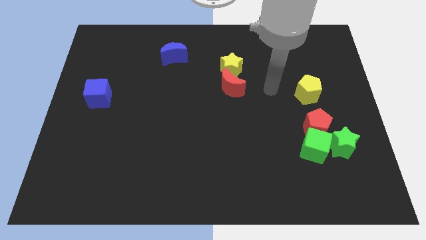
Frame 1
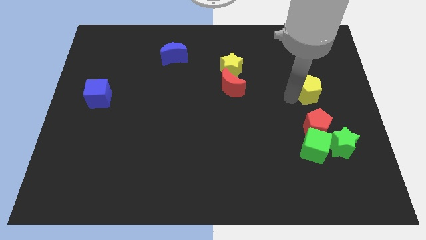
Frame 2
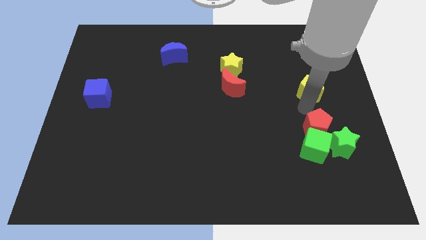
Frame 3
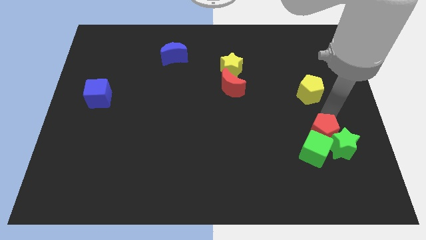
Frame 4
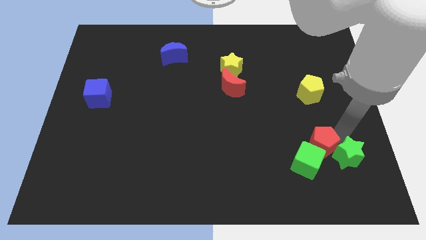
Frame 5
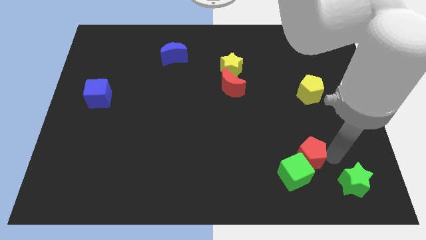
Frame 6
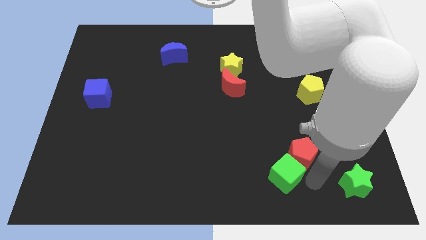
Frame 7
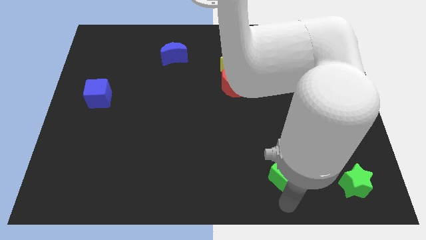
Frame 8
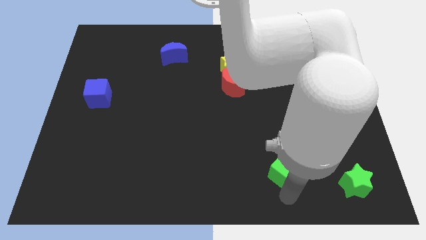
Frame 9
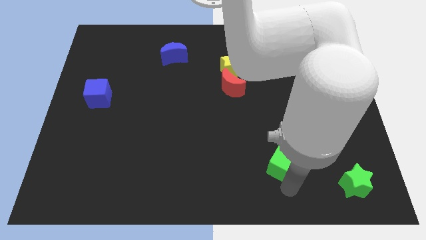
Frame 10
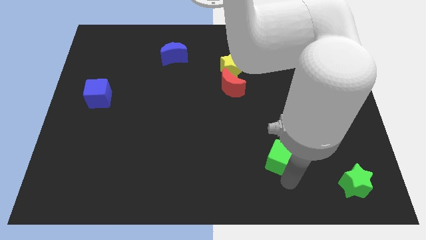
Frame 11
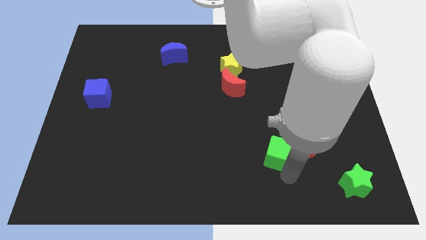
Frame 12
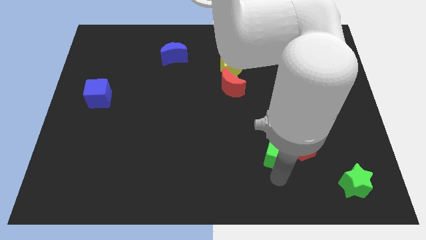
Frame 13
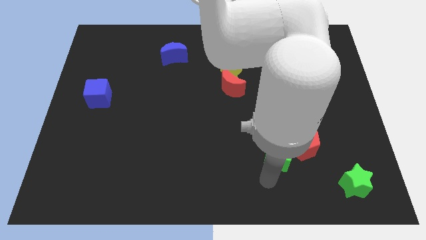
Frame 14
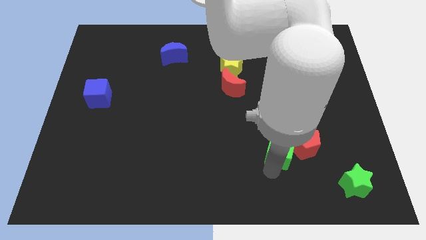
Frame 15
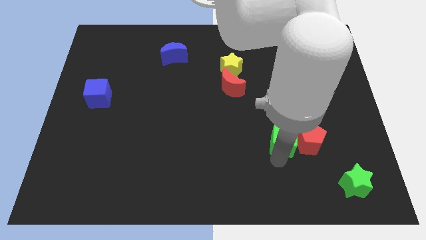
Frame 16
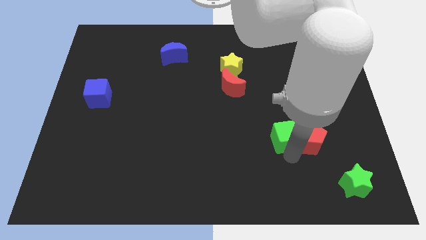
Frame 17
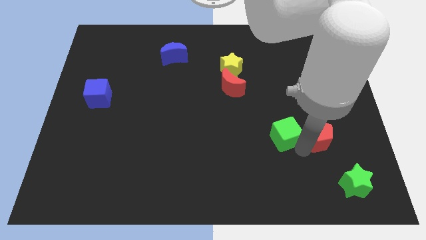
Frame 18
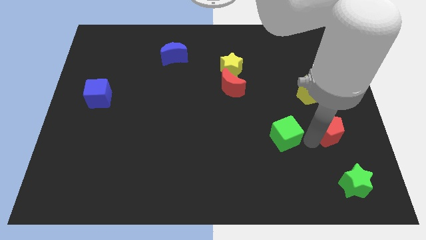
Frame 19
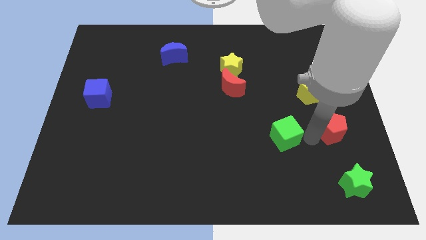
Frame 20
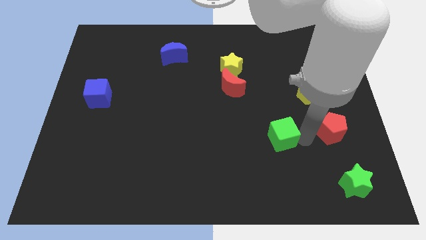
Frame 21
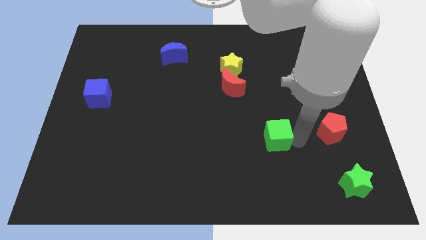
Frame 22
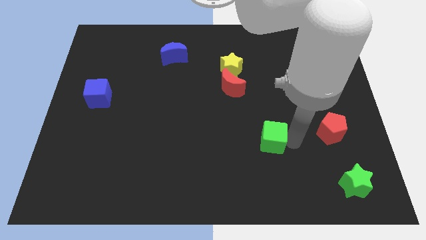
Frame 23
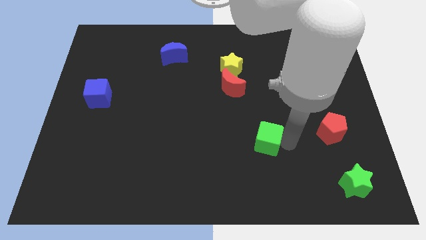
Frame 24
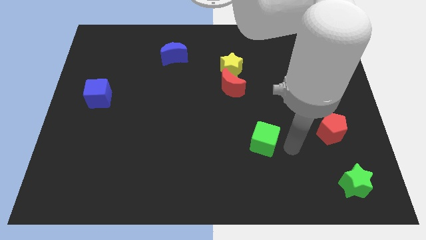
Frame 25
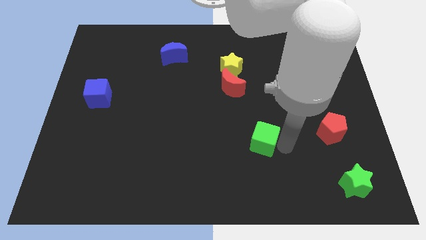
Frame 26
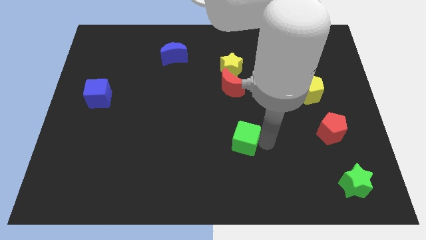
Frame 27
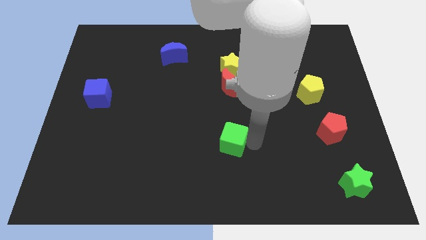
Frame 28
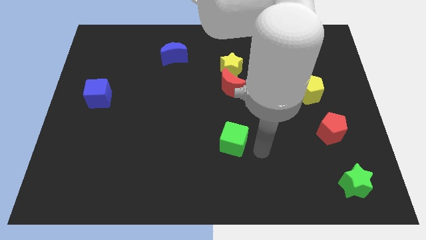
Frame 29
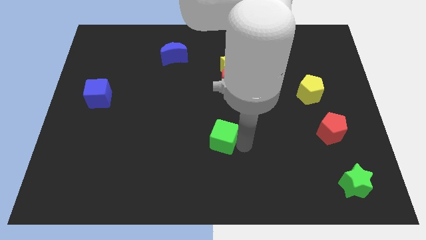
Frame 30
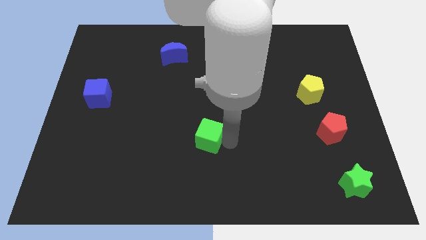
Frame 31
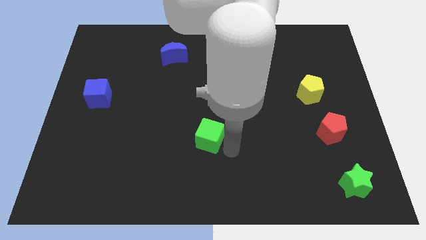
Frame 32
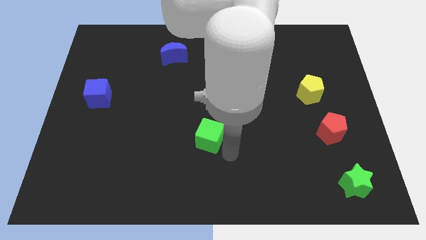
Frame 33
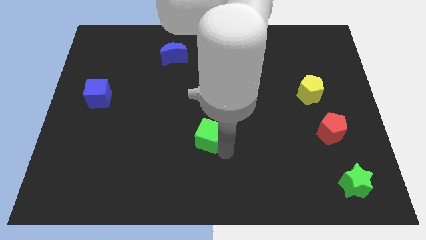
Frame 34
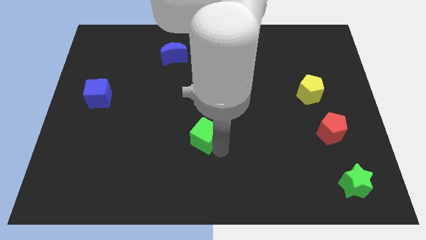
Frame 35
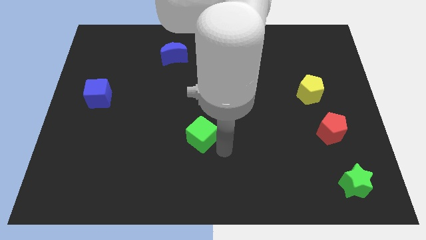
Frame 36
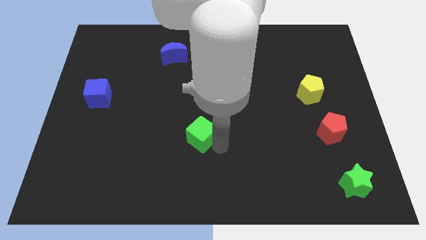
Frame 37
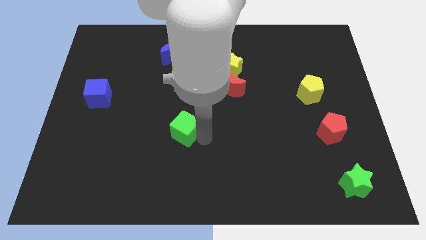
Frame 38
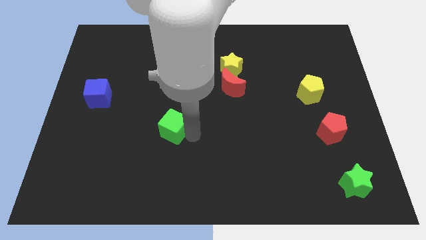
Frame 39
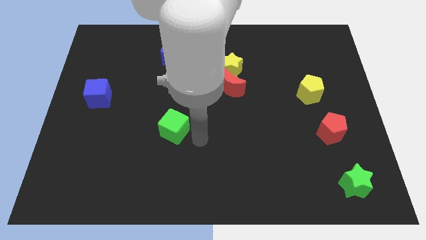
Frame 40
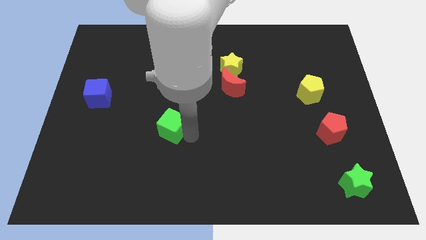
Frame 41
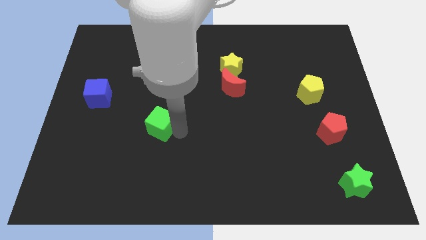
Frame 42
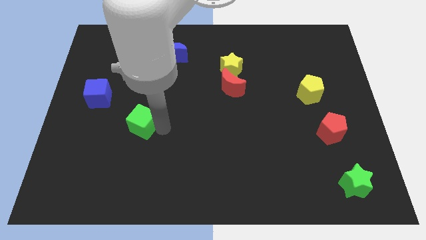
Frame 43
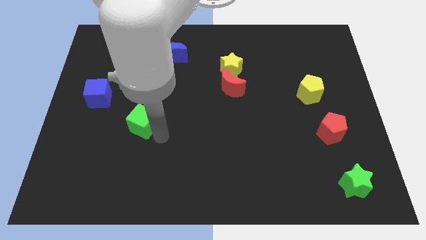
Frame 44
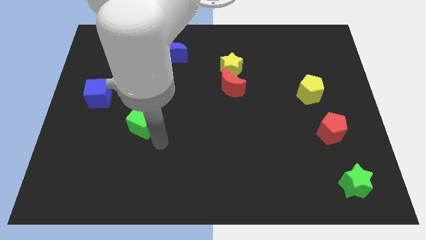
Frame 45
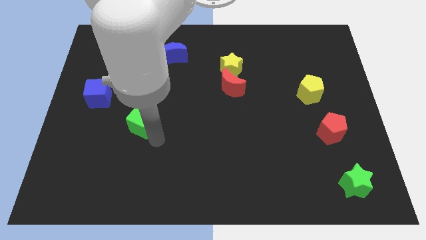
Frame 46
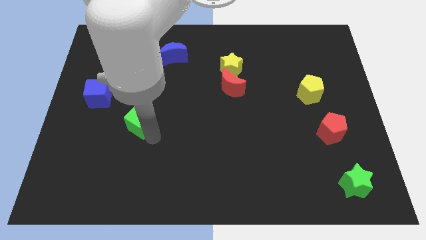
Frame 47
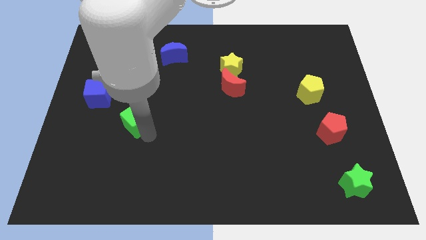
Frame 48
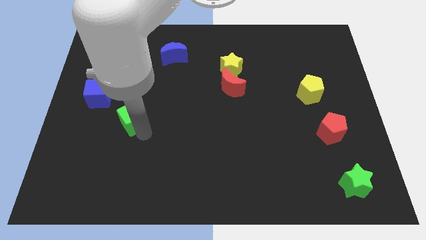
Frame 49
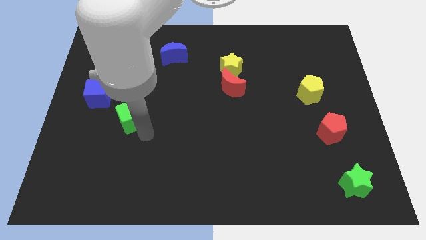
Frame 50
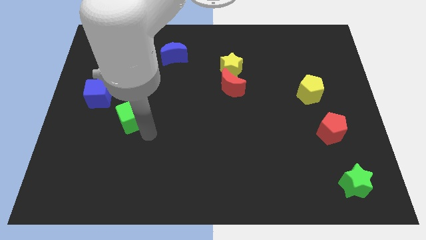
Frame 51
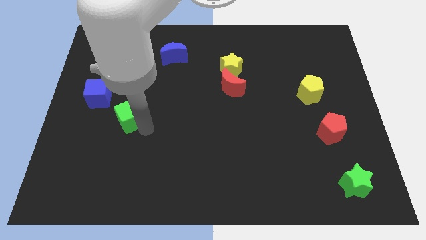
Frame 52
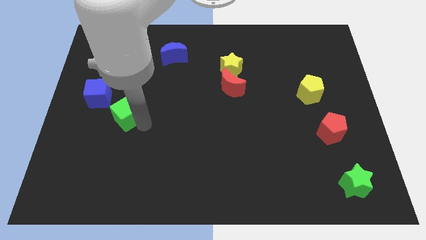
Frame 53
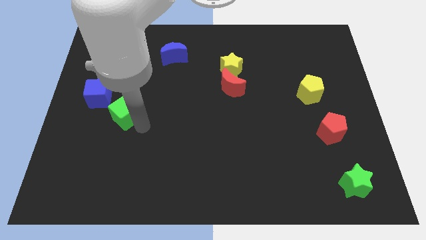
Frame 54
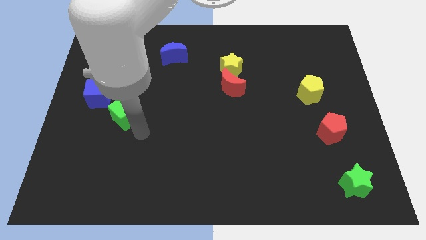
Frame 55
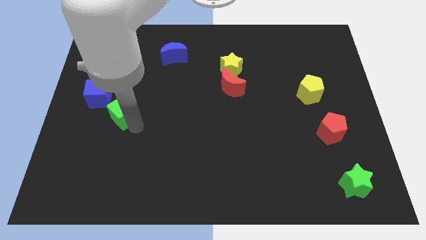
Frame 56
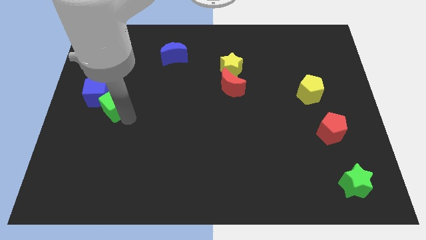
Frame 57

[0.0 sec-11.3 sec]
put the green cube next to the blue cube

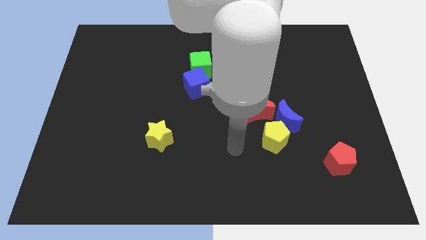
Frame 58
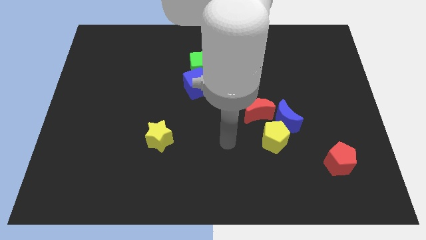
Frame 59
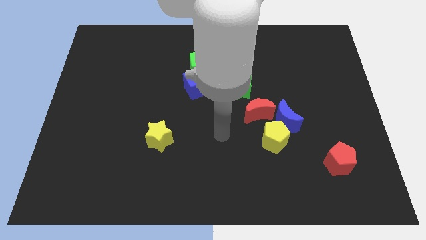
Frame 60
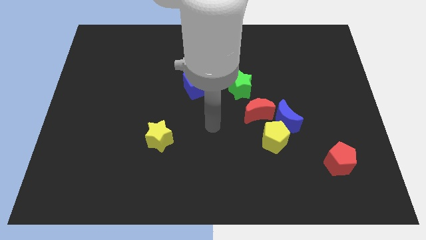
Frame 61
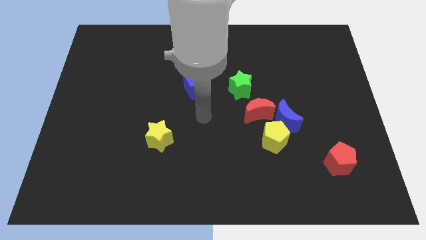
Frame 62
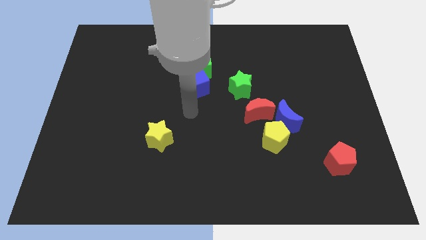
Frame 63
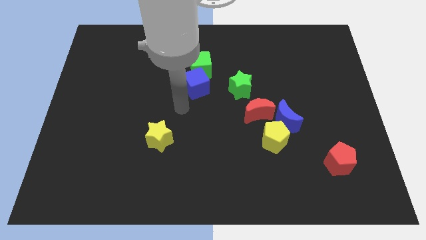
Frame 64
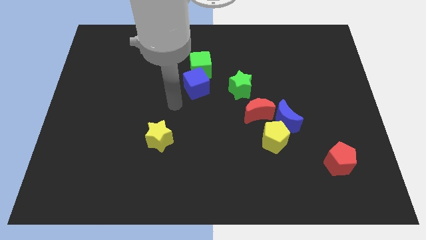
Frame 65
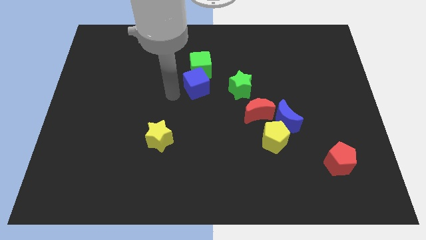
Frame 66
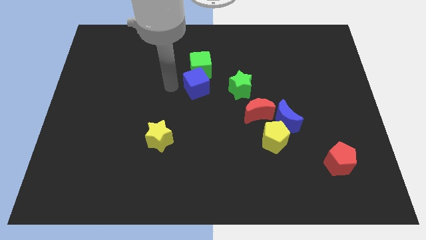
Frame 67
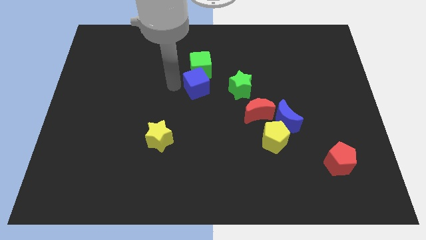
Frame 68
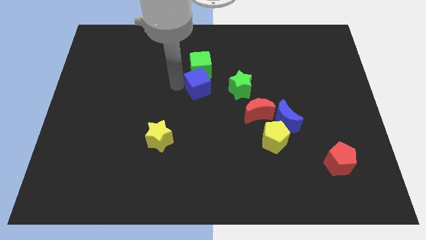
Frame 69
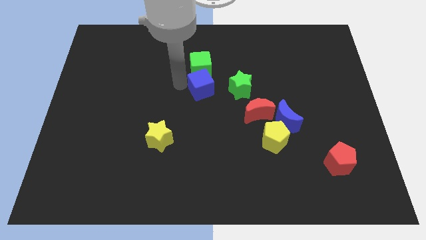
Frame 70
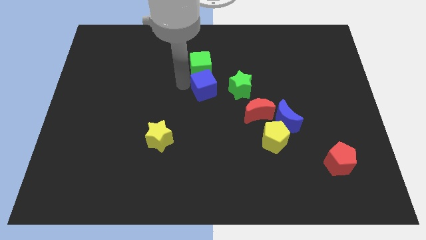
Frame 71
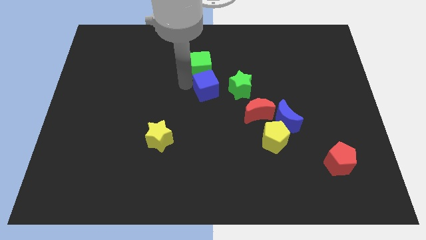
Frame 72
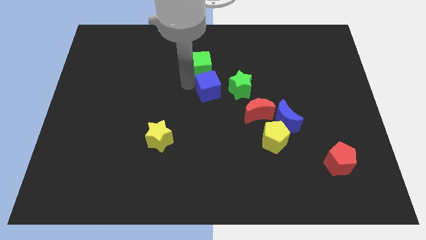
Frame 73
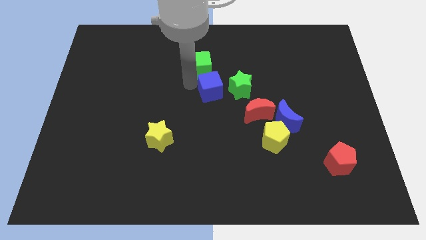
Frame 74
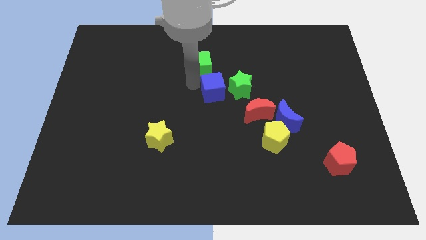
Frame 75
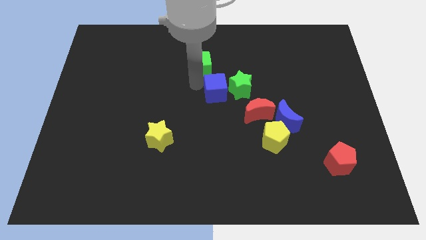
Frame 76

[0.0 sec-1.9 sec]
put the blue cube close to the green star
